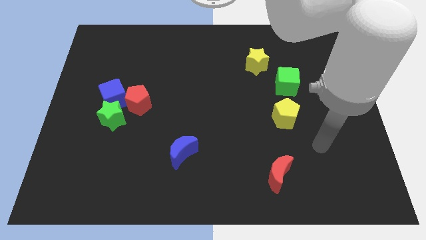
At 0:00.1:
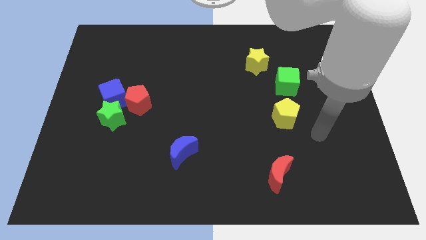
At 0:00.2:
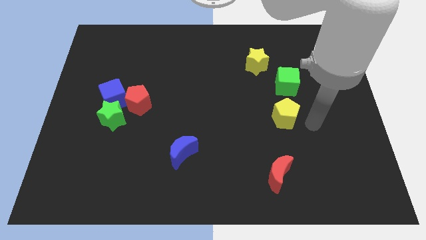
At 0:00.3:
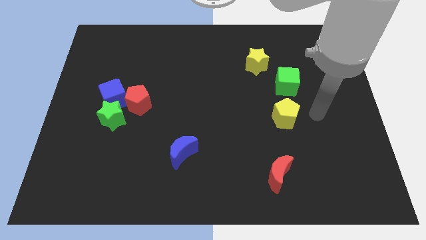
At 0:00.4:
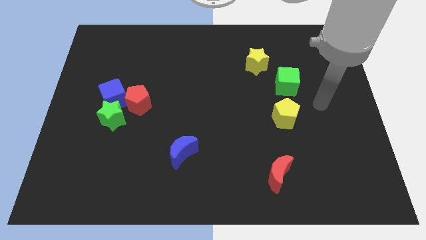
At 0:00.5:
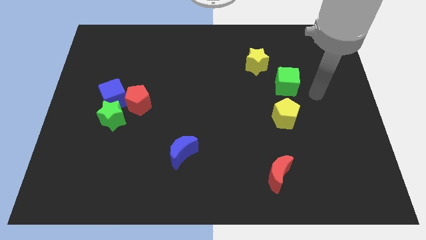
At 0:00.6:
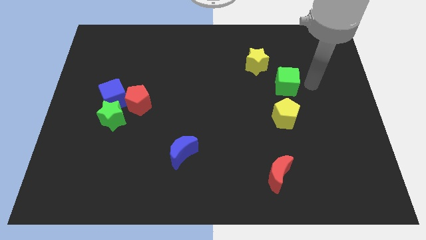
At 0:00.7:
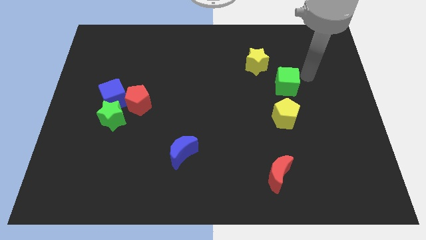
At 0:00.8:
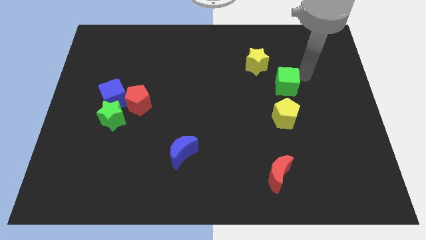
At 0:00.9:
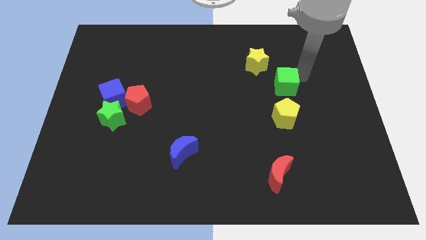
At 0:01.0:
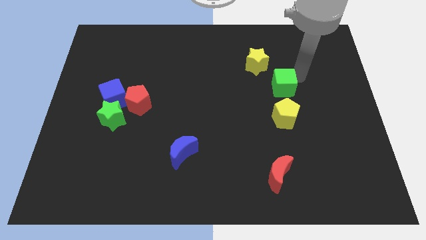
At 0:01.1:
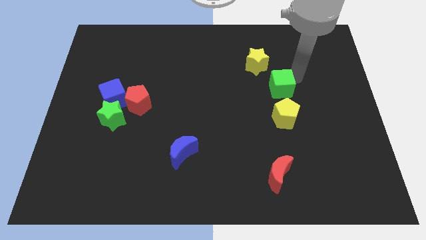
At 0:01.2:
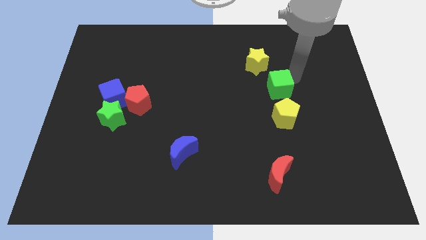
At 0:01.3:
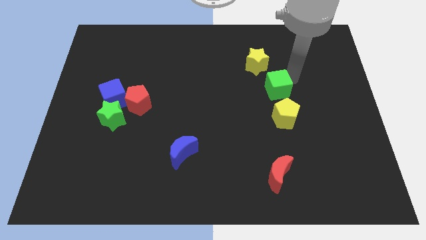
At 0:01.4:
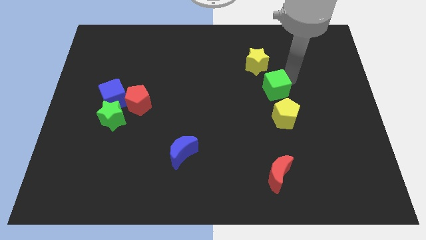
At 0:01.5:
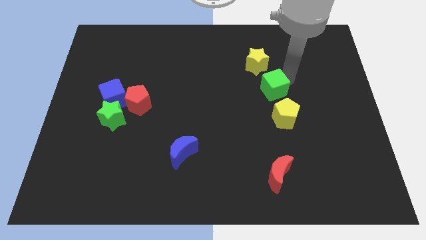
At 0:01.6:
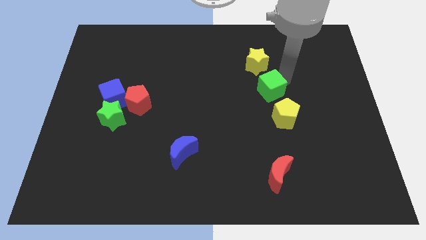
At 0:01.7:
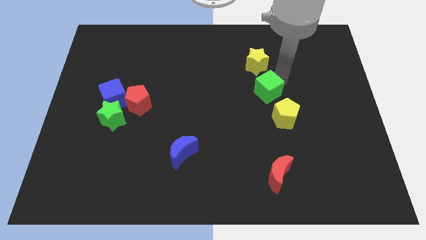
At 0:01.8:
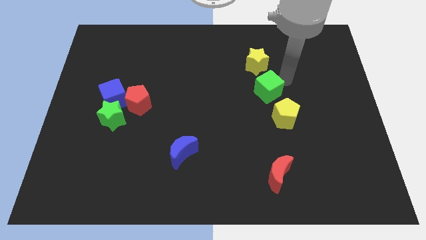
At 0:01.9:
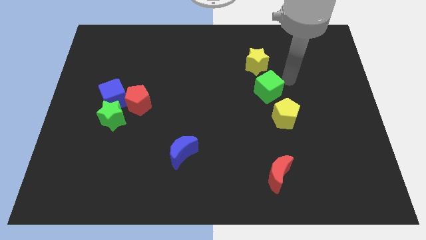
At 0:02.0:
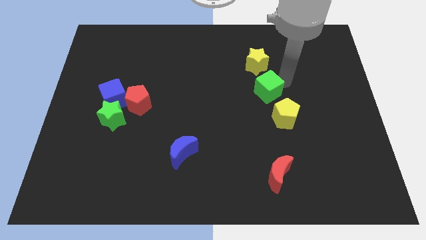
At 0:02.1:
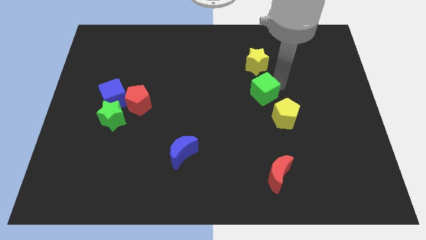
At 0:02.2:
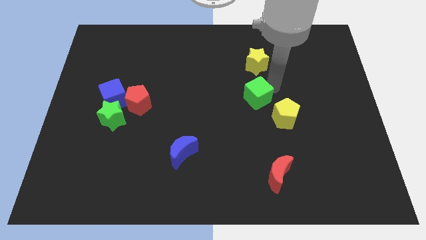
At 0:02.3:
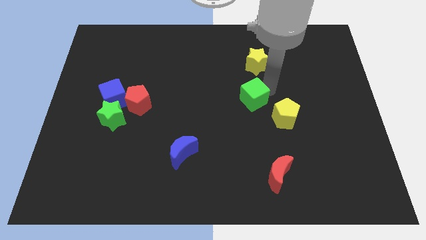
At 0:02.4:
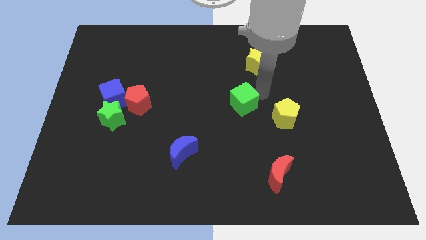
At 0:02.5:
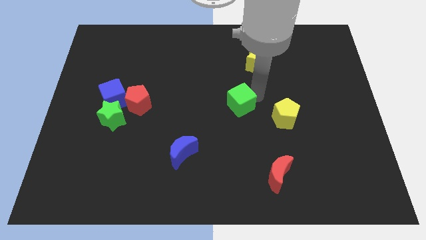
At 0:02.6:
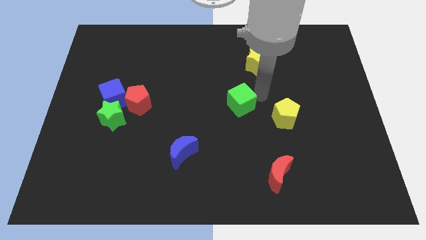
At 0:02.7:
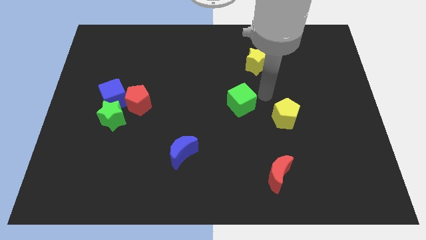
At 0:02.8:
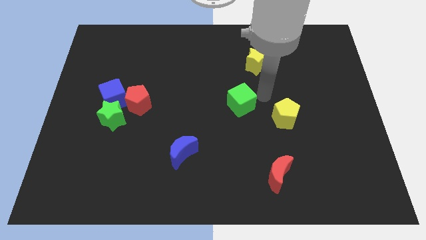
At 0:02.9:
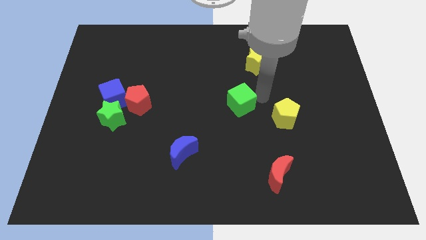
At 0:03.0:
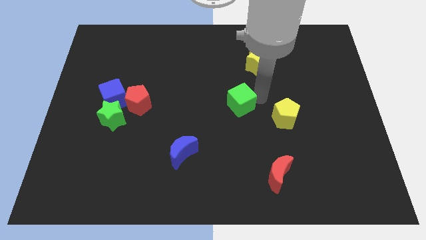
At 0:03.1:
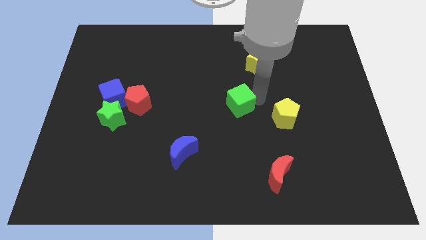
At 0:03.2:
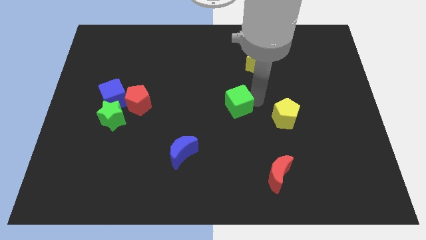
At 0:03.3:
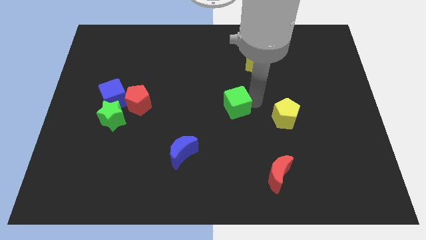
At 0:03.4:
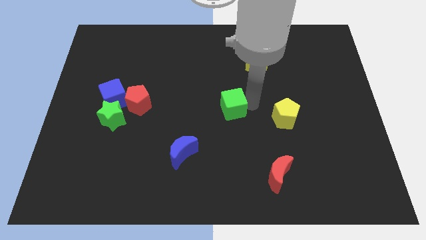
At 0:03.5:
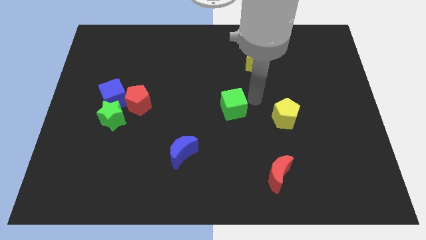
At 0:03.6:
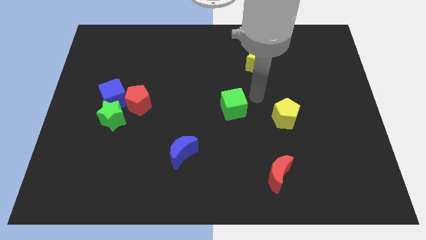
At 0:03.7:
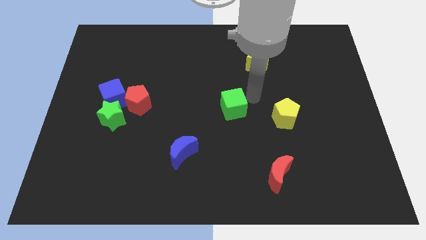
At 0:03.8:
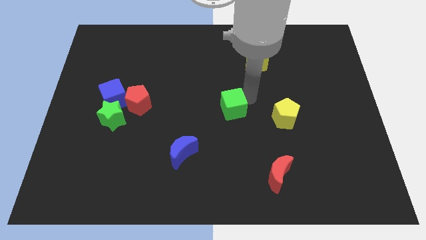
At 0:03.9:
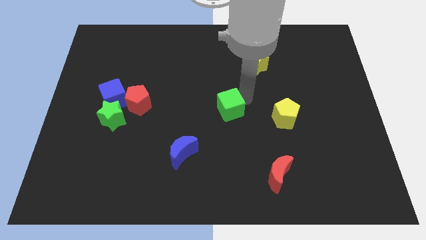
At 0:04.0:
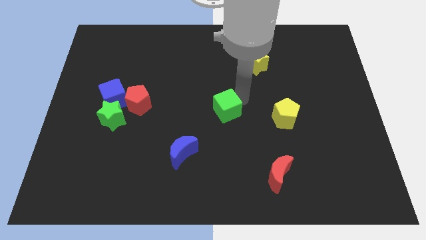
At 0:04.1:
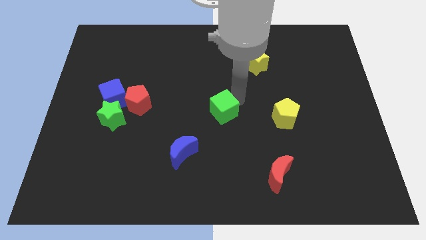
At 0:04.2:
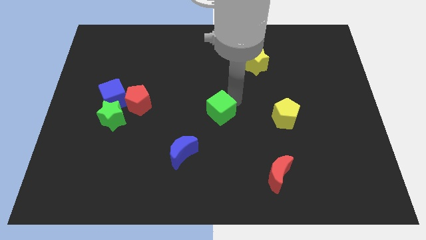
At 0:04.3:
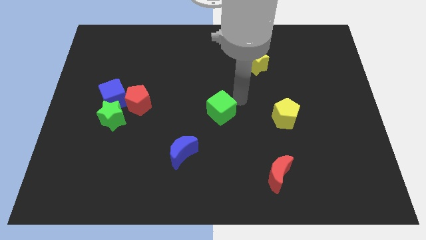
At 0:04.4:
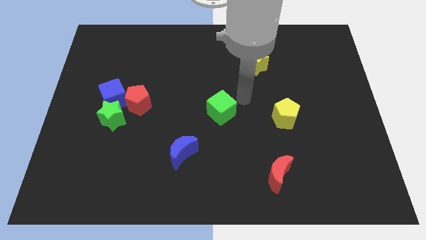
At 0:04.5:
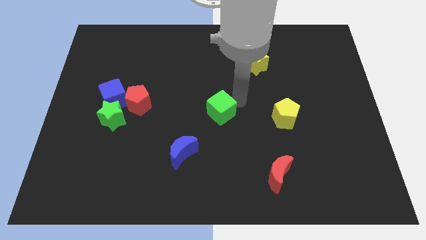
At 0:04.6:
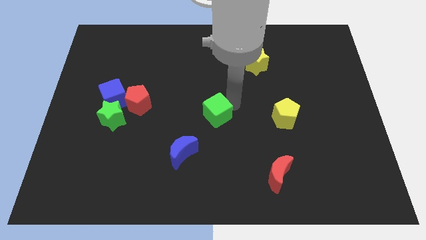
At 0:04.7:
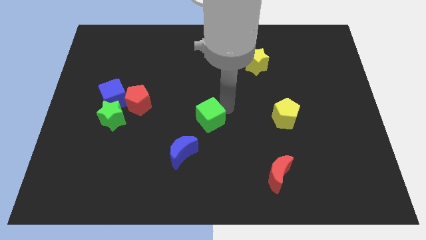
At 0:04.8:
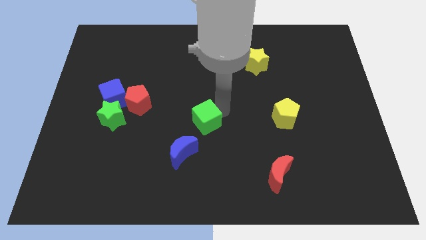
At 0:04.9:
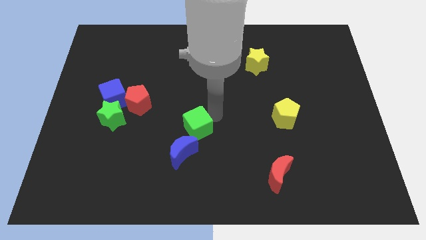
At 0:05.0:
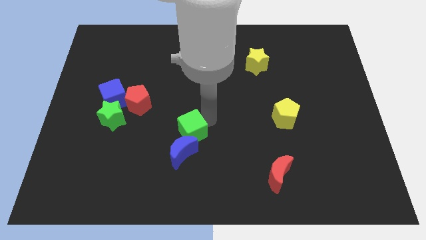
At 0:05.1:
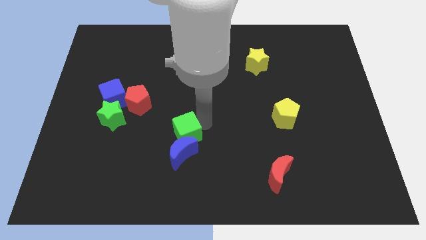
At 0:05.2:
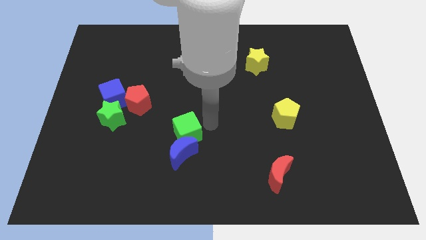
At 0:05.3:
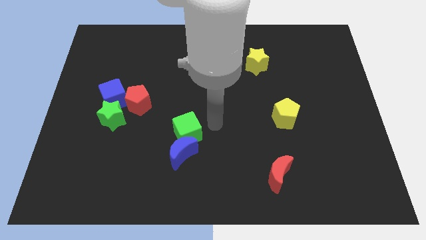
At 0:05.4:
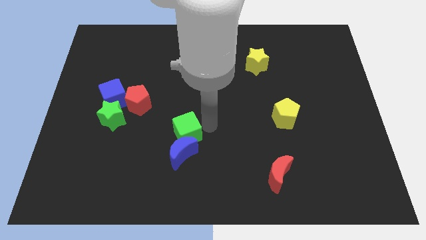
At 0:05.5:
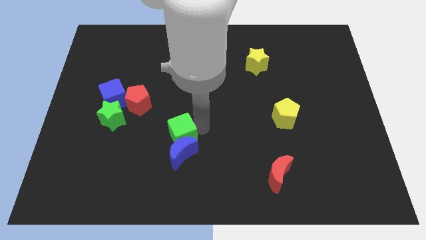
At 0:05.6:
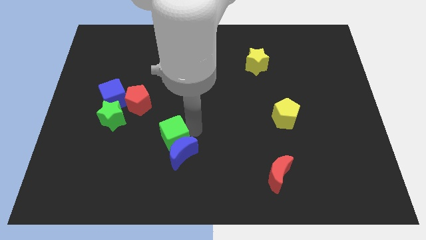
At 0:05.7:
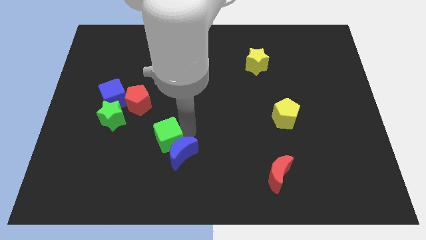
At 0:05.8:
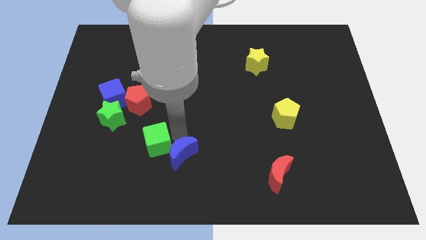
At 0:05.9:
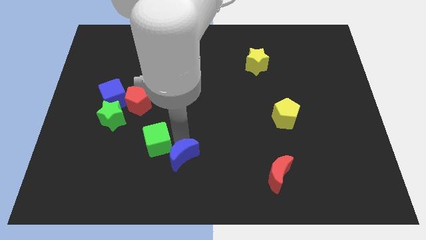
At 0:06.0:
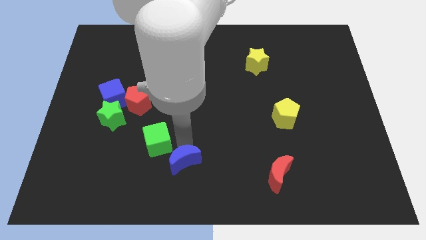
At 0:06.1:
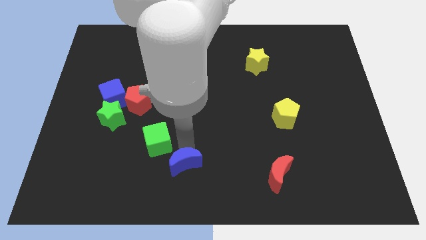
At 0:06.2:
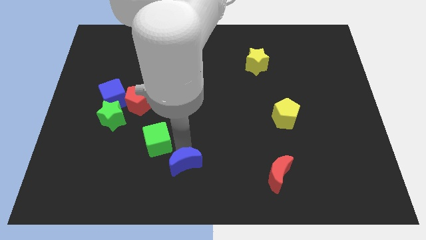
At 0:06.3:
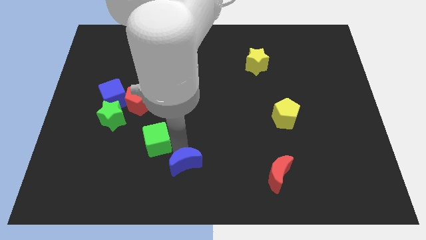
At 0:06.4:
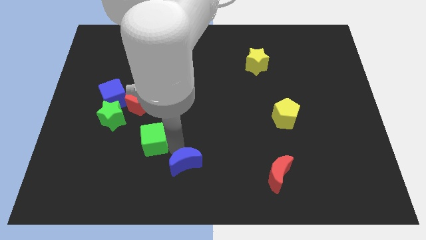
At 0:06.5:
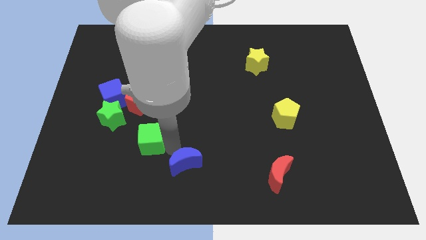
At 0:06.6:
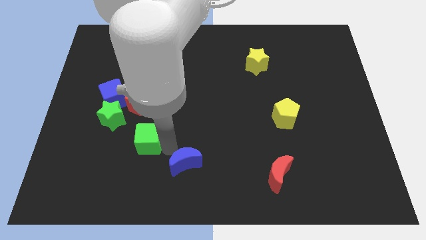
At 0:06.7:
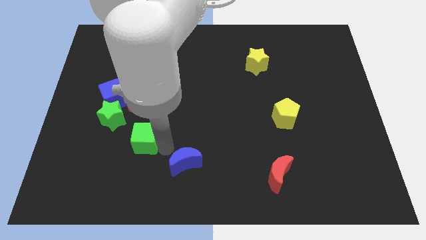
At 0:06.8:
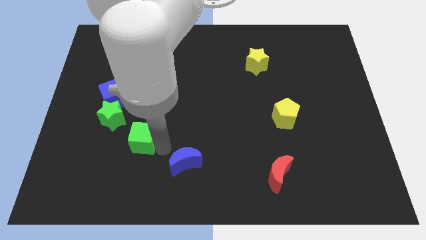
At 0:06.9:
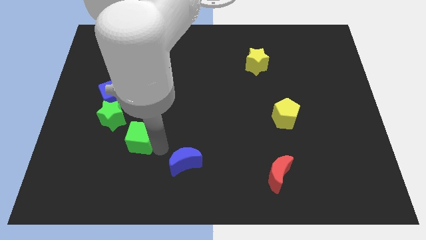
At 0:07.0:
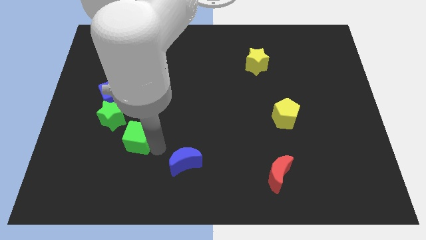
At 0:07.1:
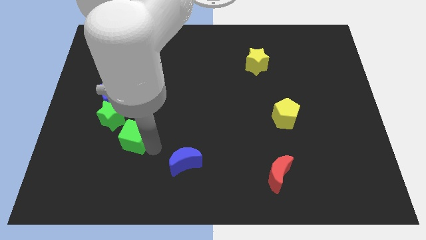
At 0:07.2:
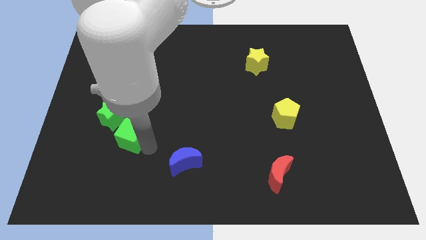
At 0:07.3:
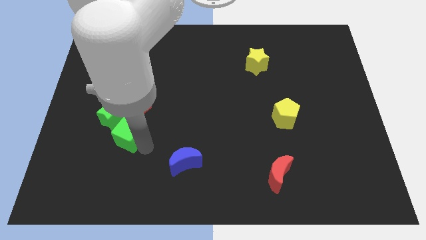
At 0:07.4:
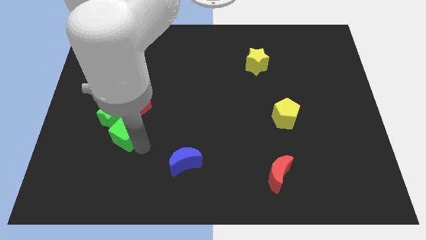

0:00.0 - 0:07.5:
move the green cube next to the green star
